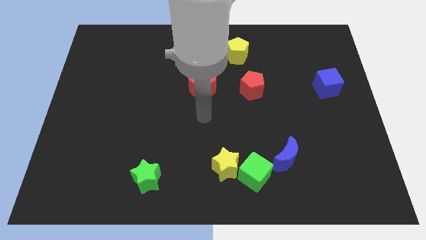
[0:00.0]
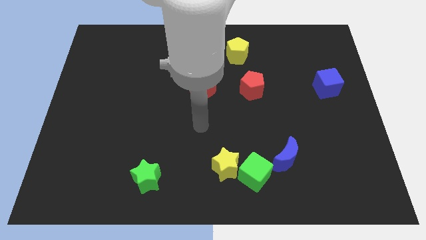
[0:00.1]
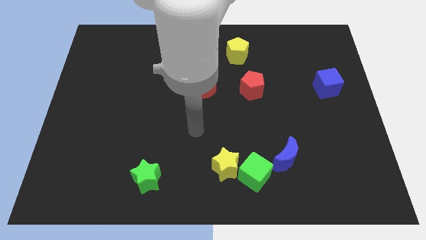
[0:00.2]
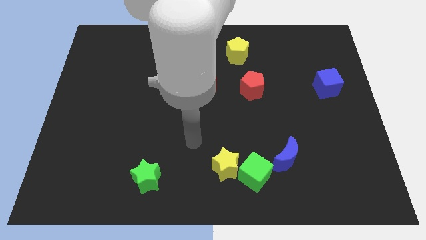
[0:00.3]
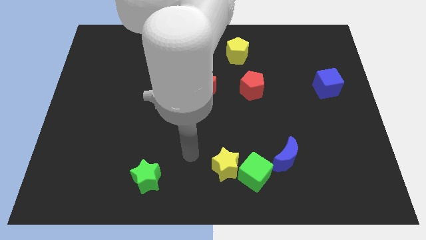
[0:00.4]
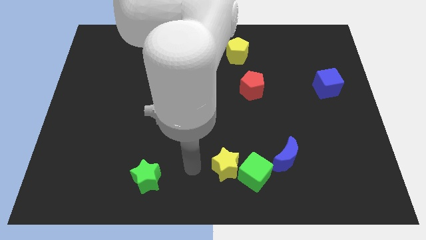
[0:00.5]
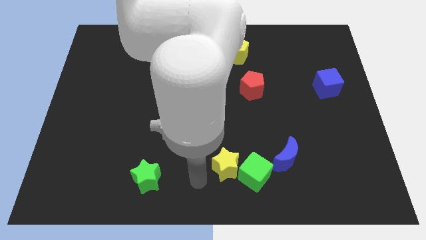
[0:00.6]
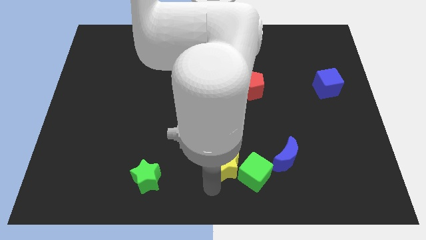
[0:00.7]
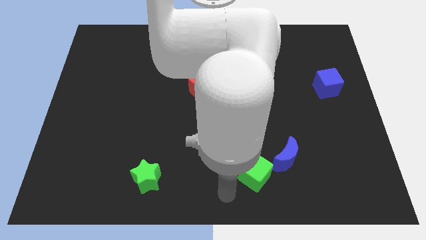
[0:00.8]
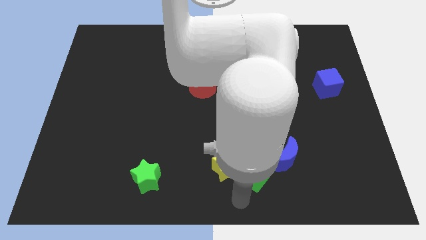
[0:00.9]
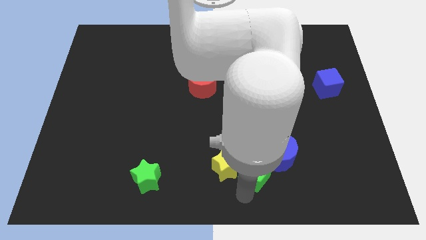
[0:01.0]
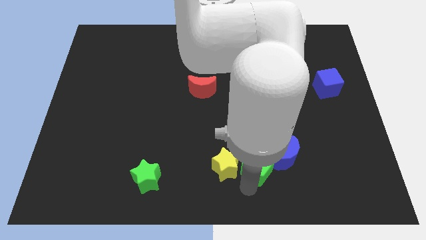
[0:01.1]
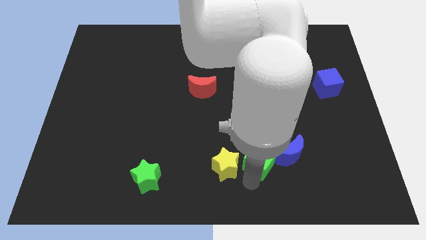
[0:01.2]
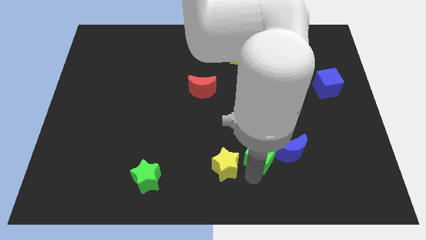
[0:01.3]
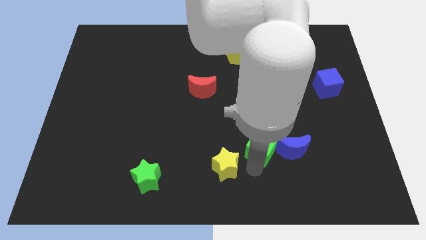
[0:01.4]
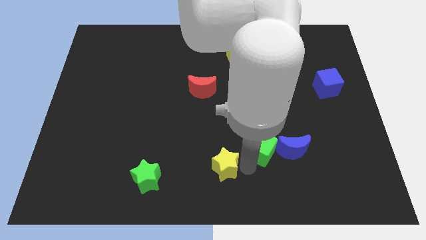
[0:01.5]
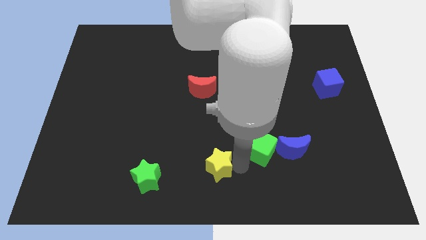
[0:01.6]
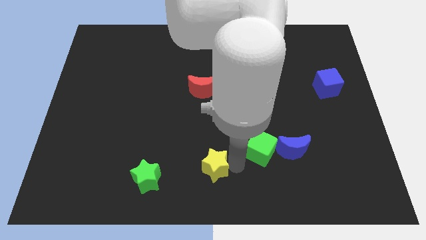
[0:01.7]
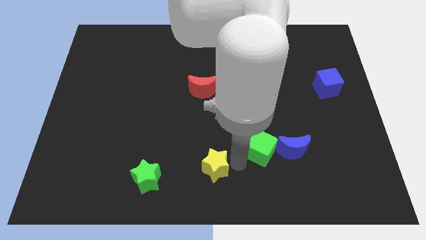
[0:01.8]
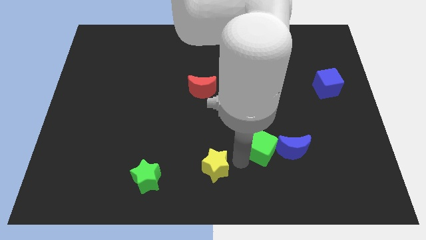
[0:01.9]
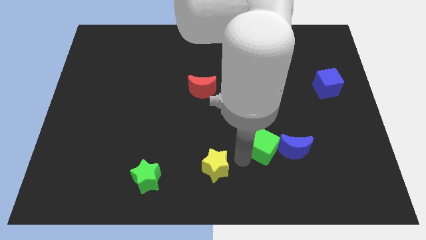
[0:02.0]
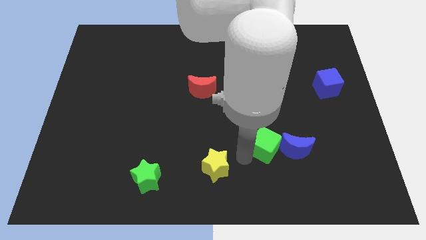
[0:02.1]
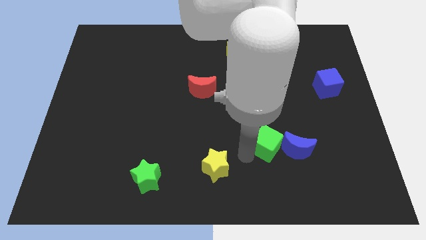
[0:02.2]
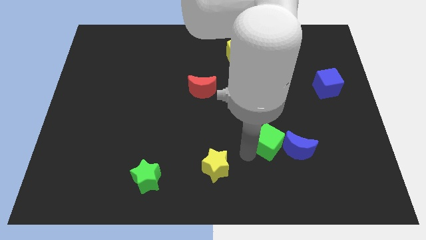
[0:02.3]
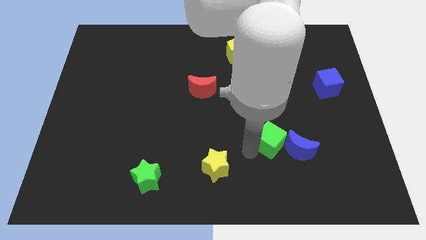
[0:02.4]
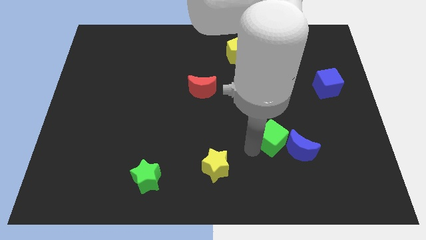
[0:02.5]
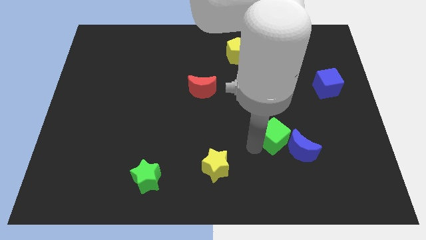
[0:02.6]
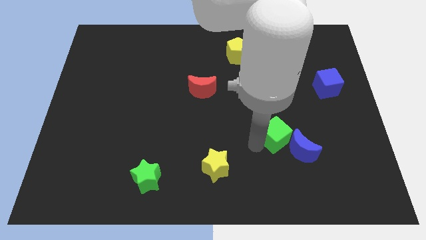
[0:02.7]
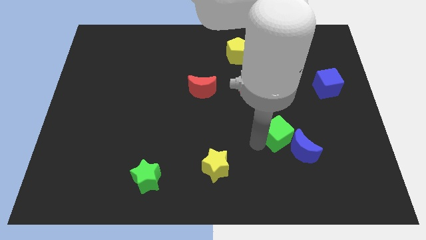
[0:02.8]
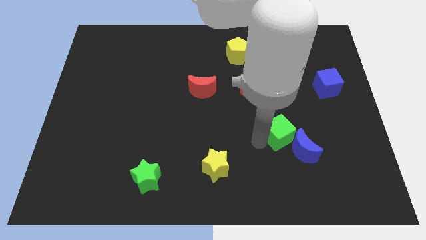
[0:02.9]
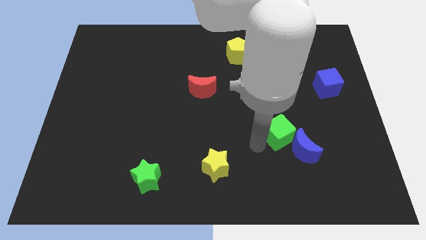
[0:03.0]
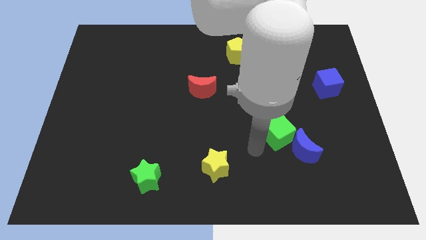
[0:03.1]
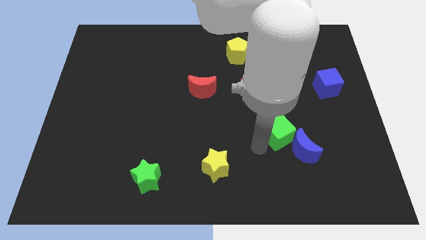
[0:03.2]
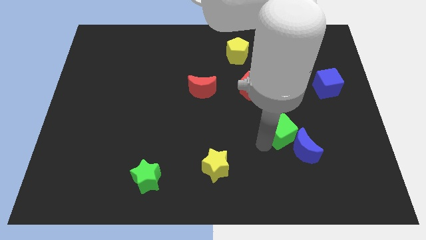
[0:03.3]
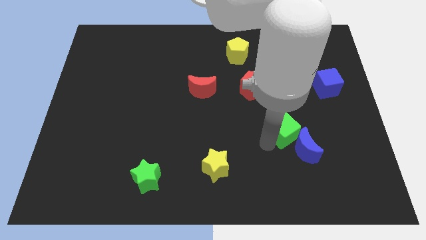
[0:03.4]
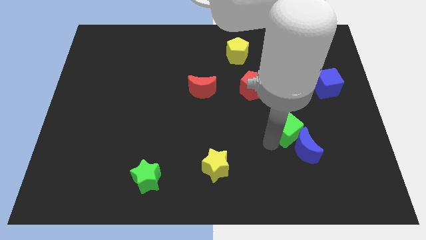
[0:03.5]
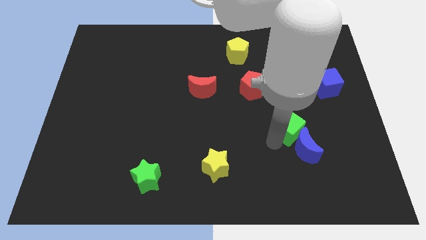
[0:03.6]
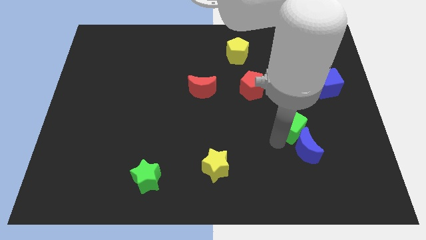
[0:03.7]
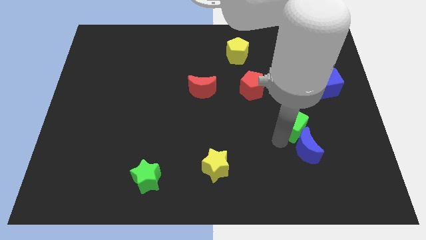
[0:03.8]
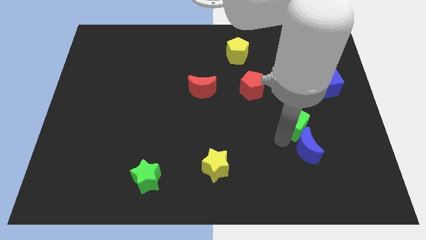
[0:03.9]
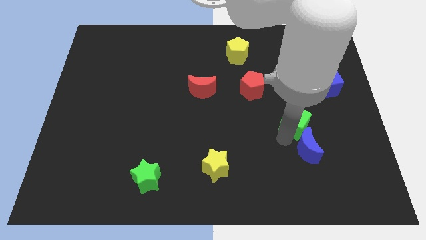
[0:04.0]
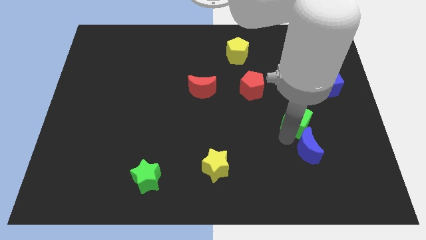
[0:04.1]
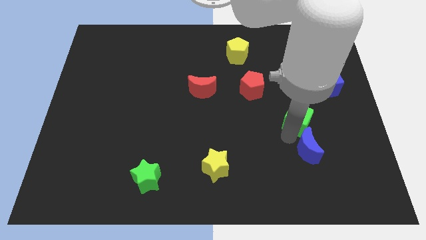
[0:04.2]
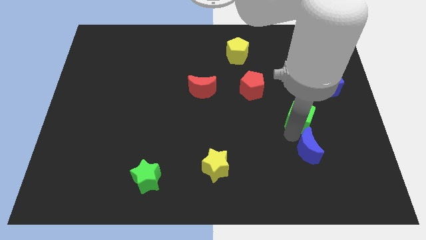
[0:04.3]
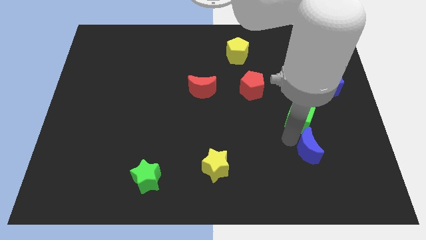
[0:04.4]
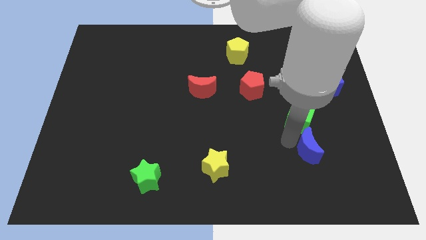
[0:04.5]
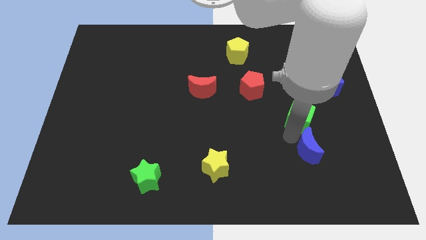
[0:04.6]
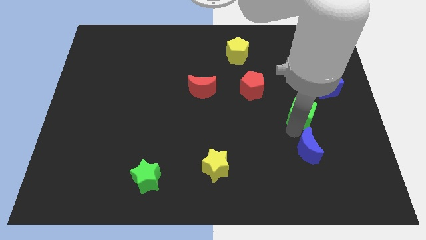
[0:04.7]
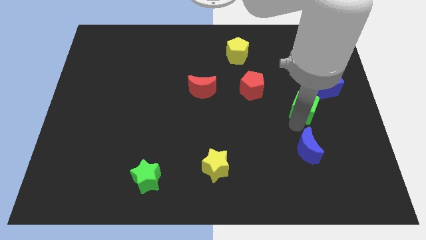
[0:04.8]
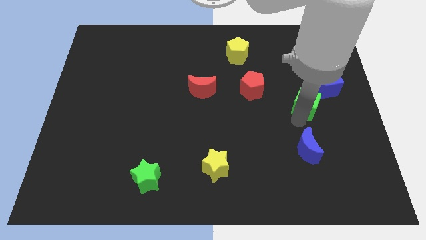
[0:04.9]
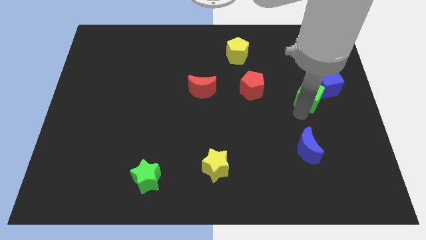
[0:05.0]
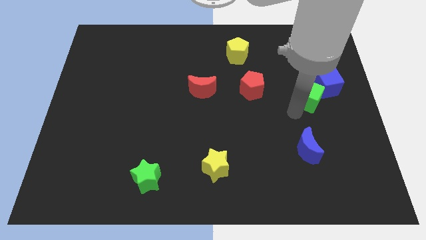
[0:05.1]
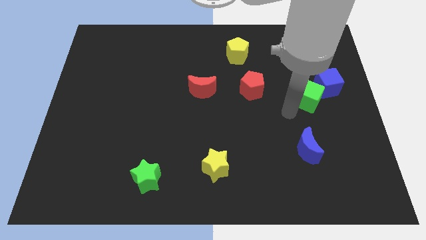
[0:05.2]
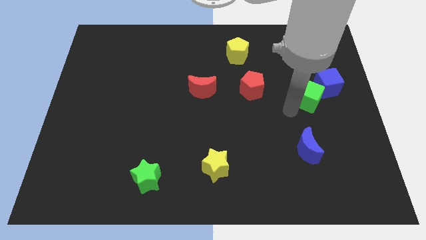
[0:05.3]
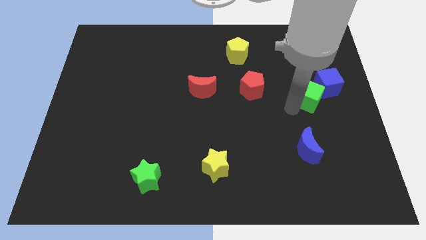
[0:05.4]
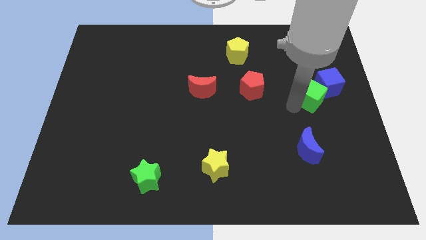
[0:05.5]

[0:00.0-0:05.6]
slide the green cube next to the blue cube

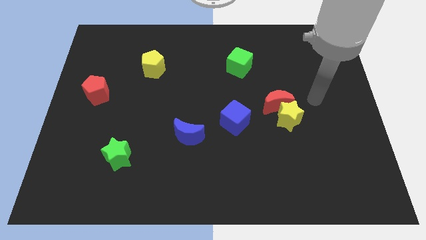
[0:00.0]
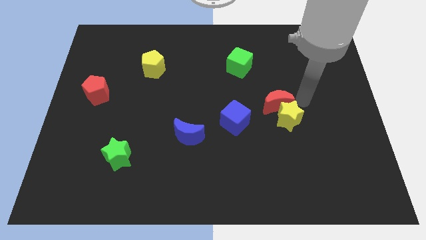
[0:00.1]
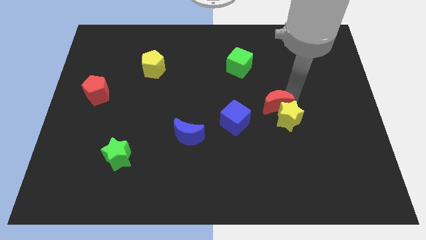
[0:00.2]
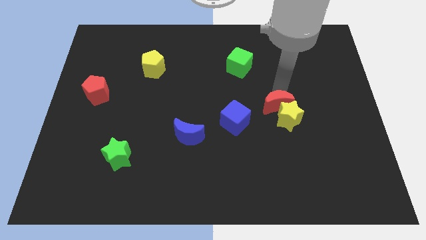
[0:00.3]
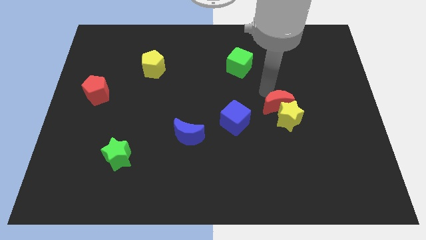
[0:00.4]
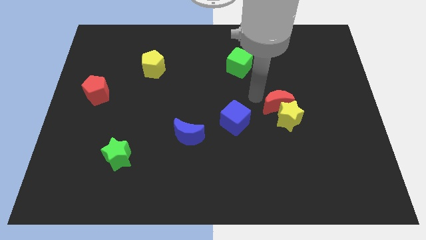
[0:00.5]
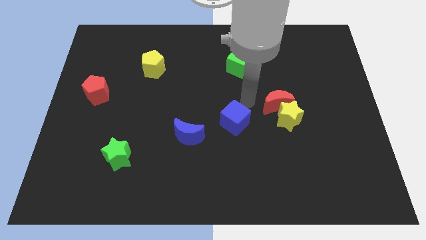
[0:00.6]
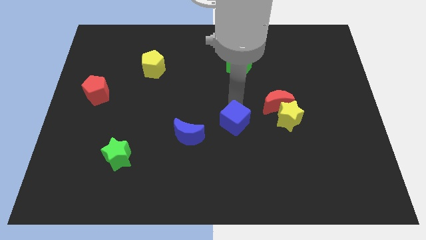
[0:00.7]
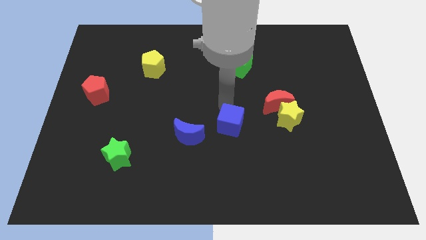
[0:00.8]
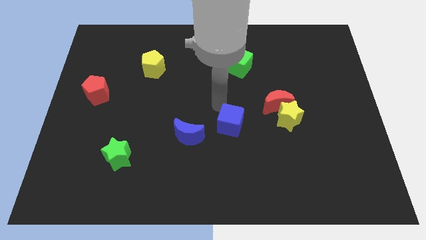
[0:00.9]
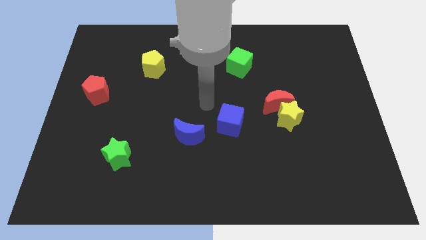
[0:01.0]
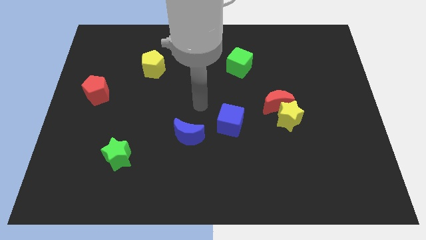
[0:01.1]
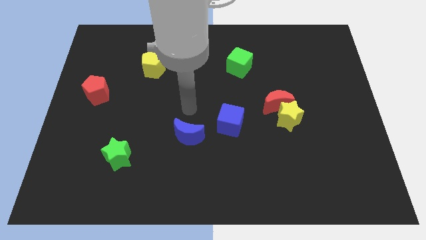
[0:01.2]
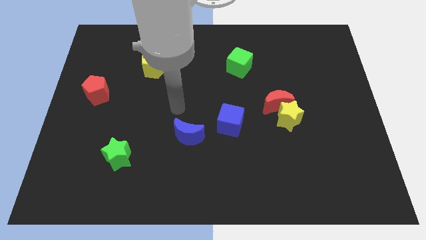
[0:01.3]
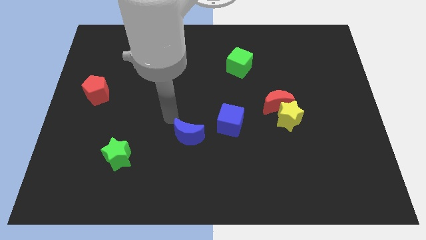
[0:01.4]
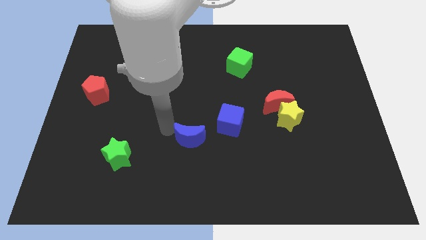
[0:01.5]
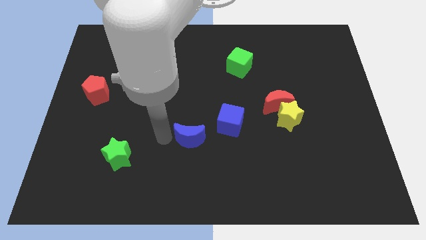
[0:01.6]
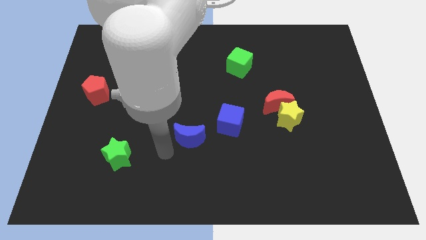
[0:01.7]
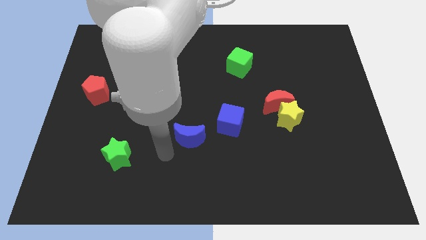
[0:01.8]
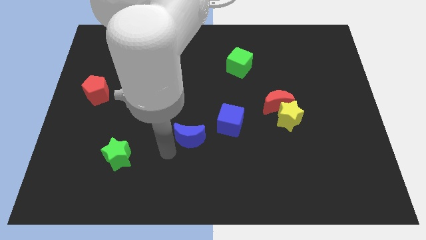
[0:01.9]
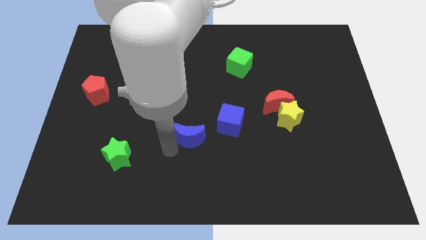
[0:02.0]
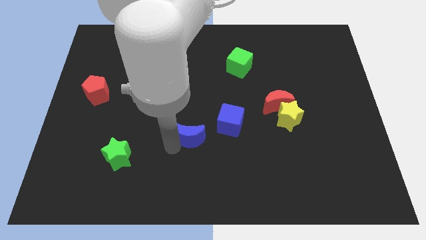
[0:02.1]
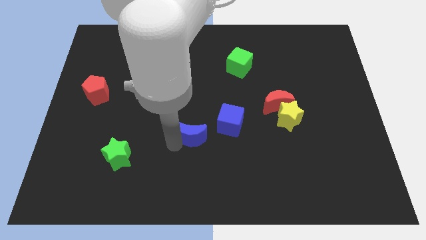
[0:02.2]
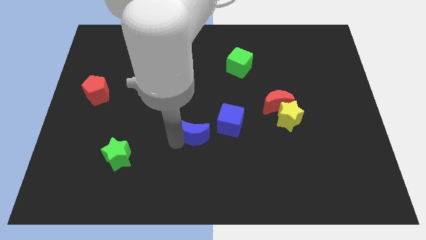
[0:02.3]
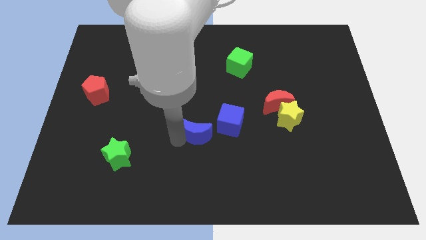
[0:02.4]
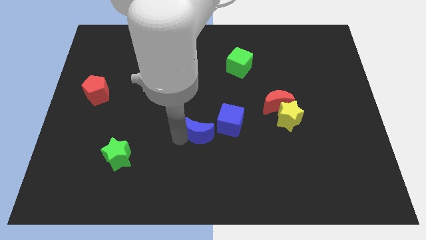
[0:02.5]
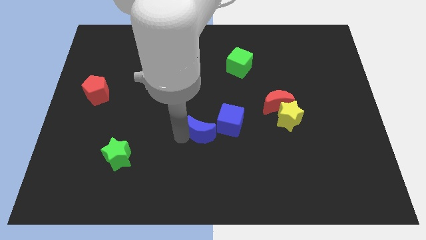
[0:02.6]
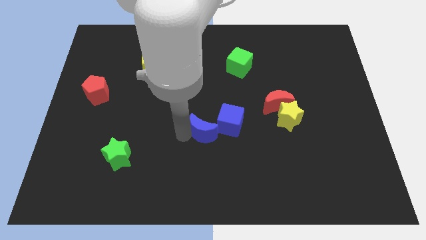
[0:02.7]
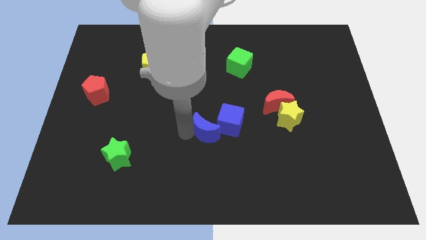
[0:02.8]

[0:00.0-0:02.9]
slide the blue moon next to the blue cube
